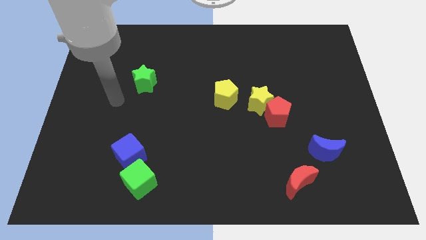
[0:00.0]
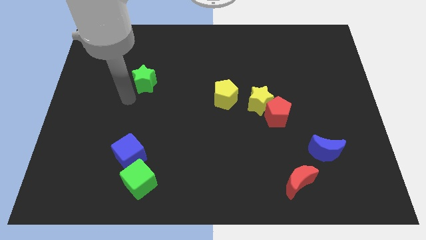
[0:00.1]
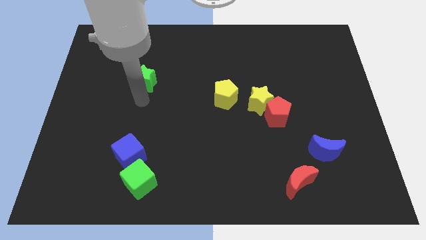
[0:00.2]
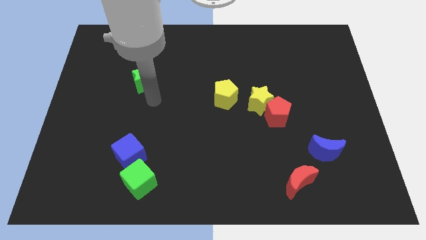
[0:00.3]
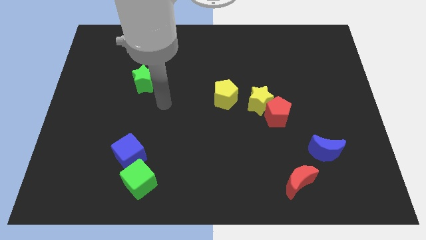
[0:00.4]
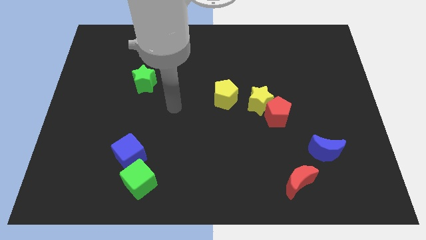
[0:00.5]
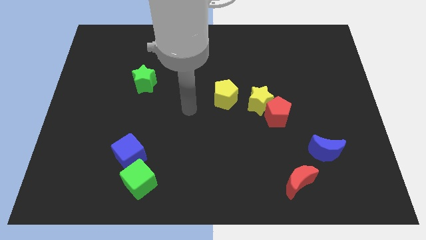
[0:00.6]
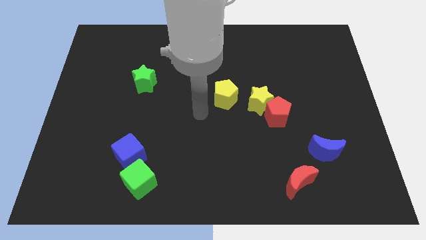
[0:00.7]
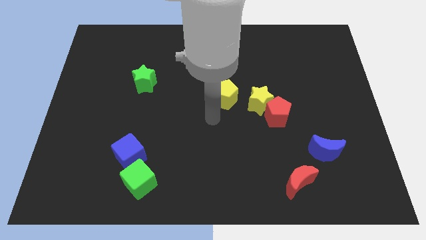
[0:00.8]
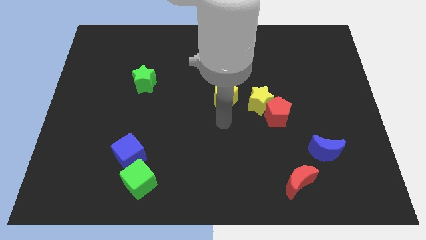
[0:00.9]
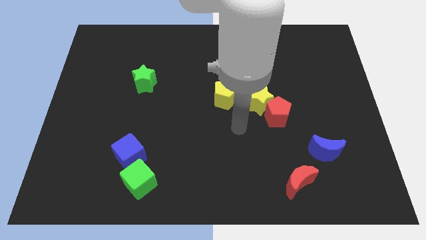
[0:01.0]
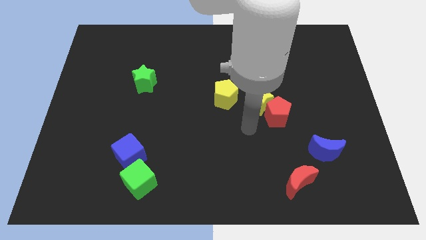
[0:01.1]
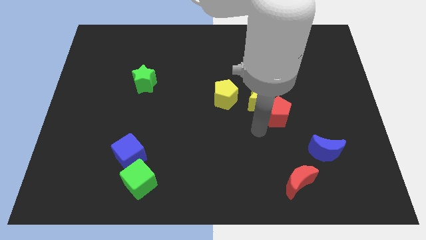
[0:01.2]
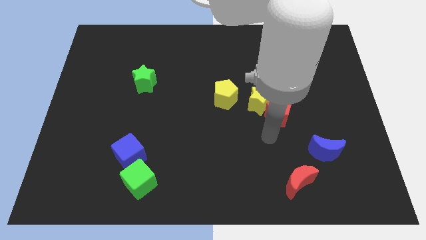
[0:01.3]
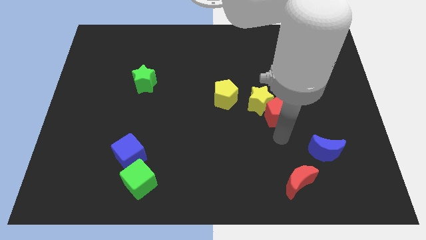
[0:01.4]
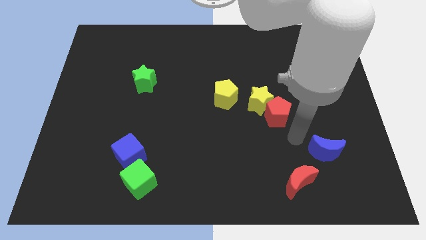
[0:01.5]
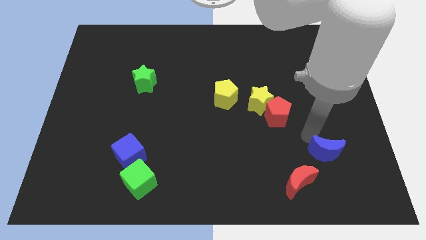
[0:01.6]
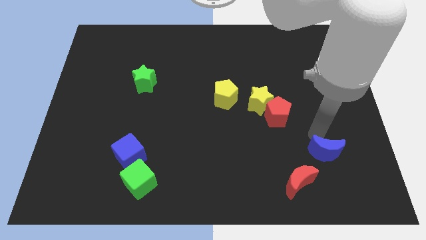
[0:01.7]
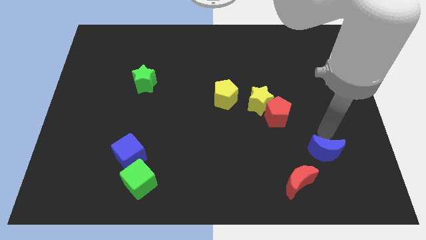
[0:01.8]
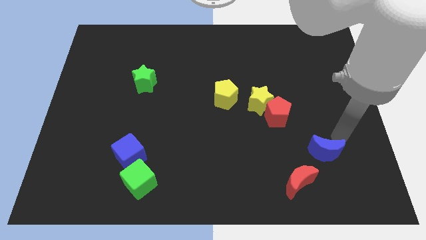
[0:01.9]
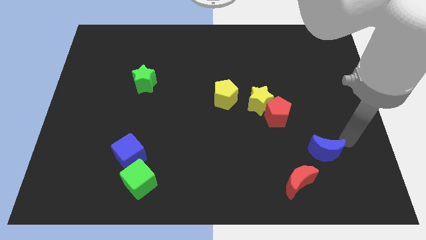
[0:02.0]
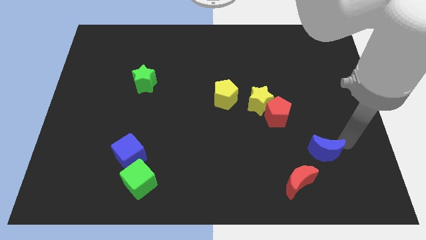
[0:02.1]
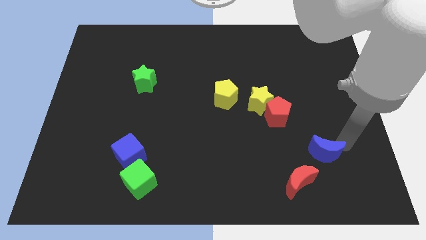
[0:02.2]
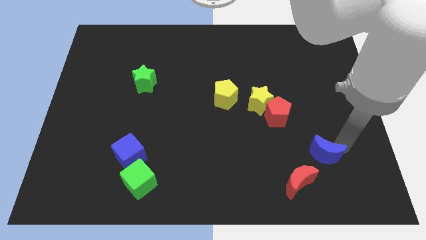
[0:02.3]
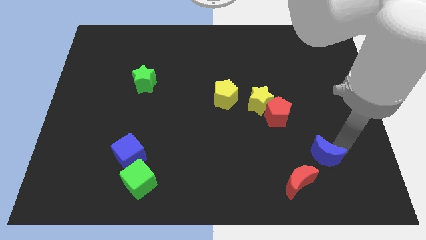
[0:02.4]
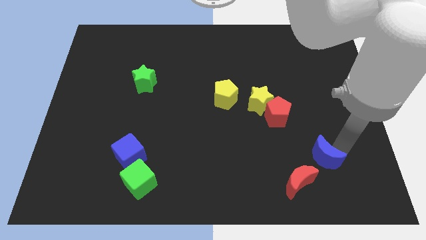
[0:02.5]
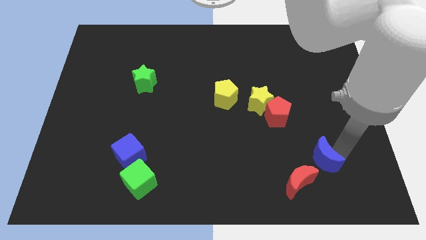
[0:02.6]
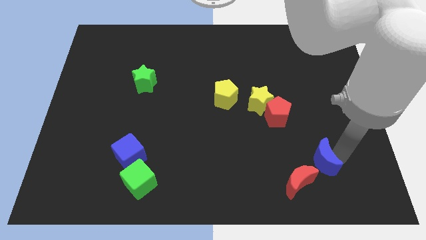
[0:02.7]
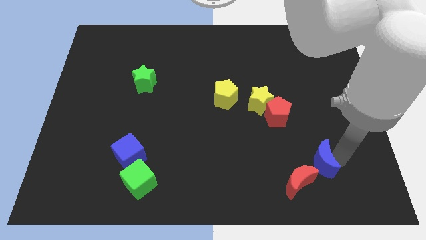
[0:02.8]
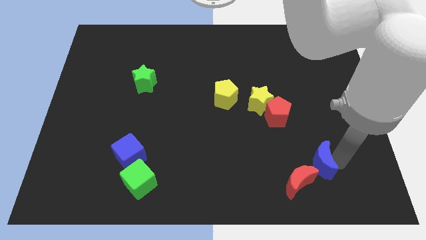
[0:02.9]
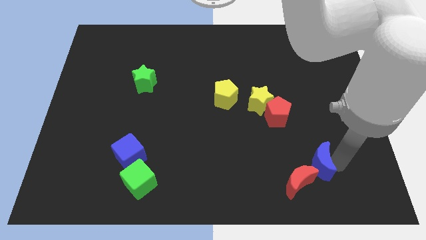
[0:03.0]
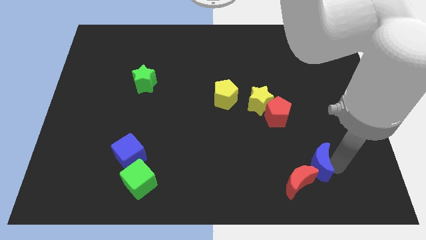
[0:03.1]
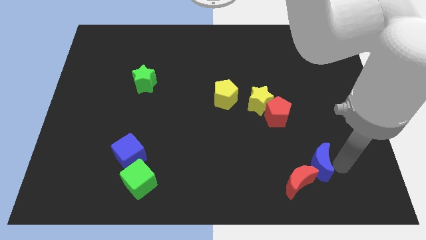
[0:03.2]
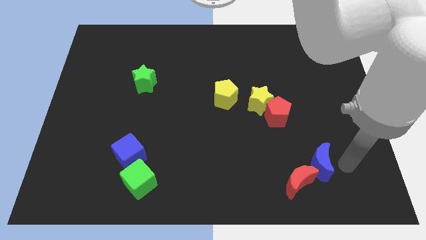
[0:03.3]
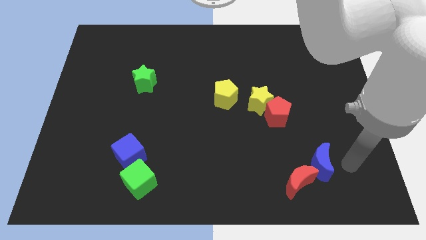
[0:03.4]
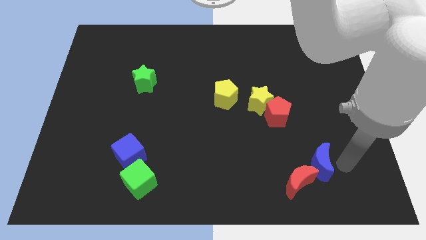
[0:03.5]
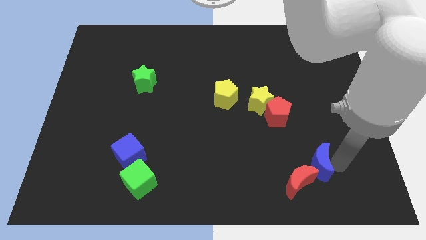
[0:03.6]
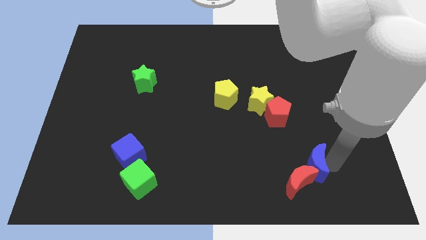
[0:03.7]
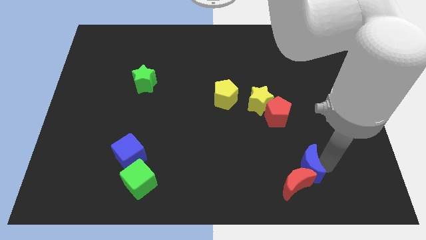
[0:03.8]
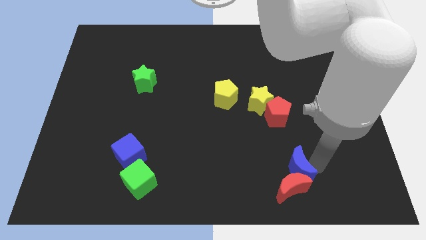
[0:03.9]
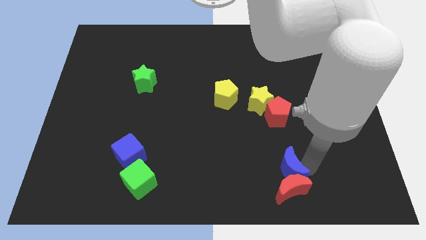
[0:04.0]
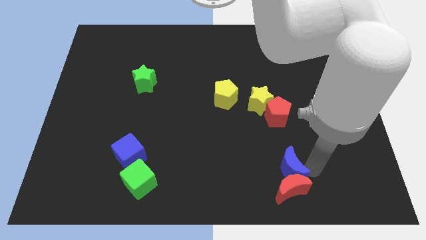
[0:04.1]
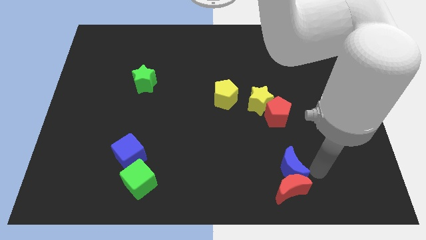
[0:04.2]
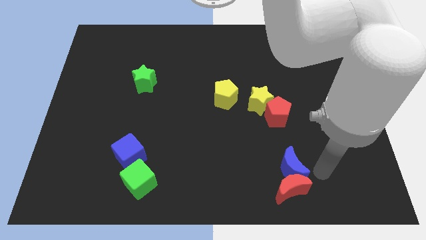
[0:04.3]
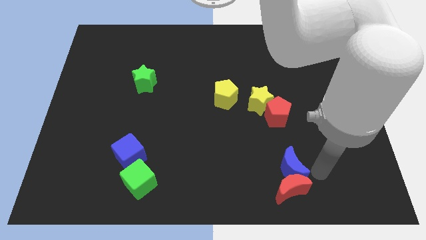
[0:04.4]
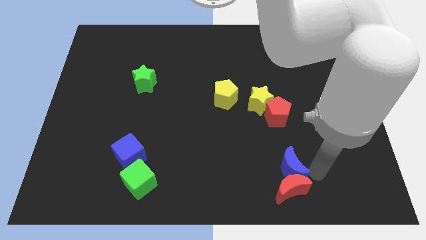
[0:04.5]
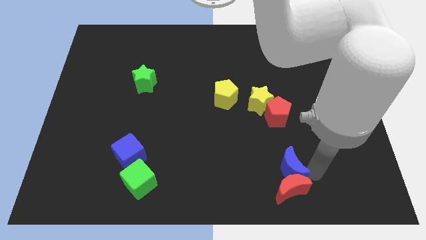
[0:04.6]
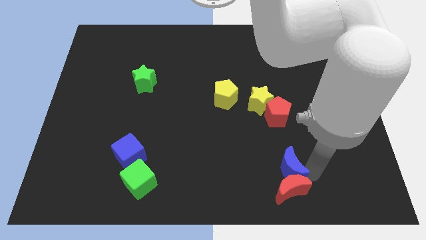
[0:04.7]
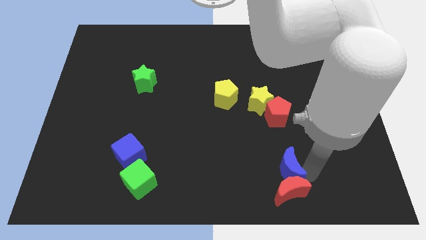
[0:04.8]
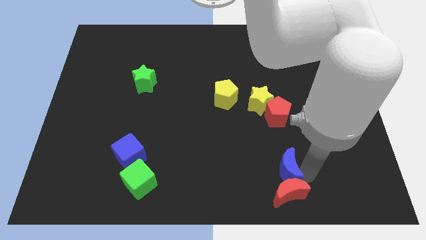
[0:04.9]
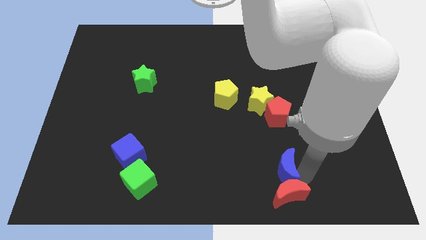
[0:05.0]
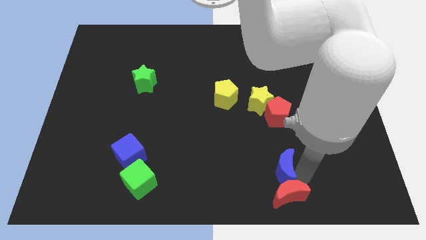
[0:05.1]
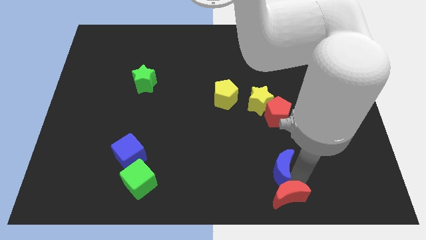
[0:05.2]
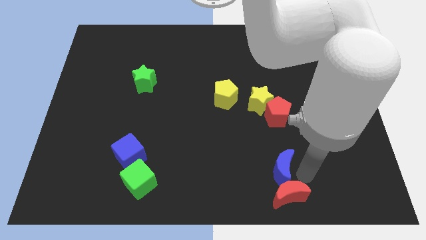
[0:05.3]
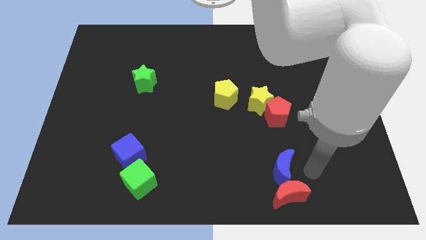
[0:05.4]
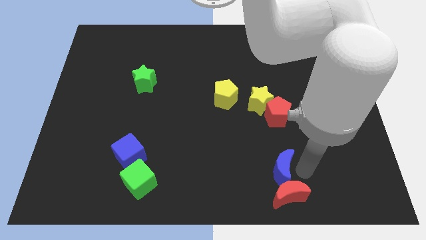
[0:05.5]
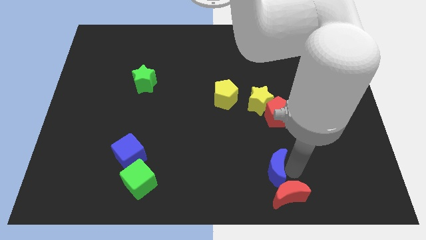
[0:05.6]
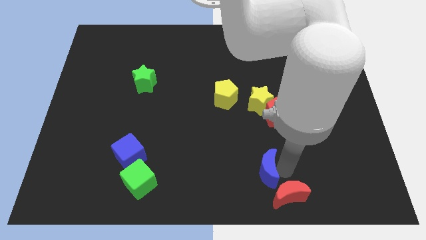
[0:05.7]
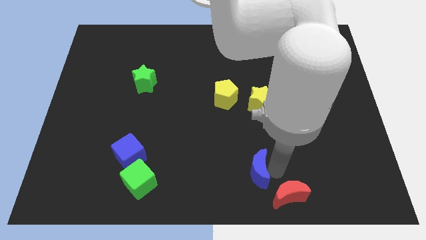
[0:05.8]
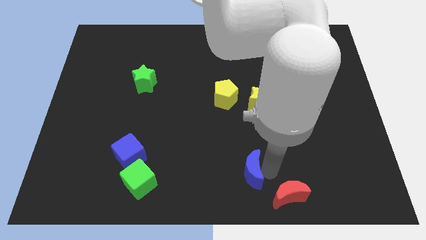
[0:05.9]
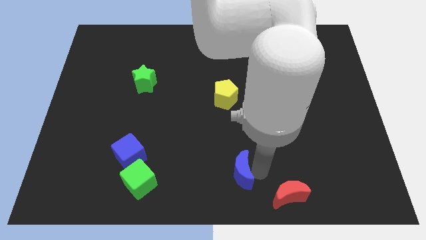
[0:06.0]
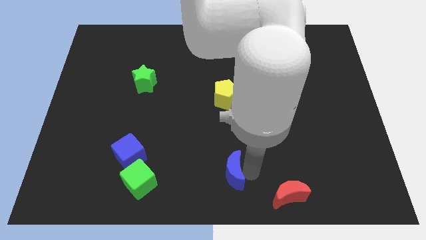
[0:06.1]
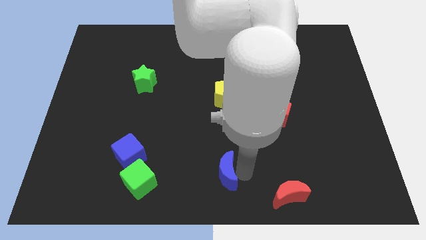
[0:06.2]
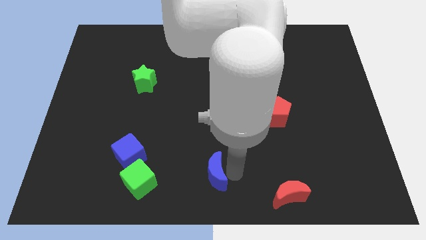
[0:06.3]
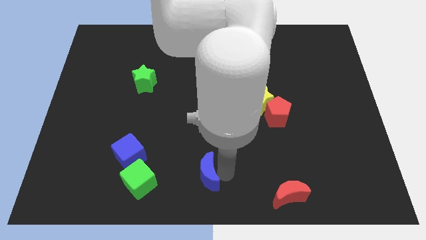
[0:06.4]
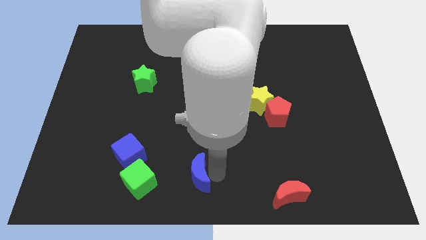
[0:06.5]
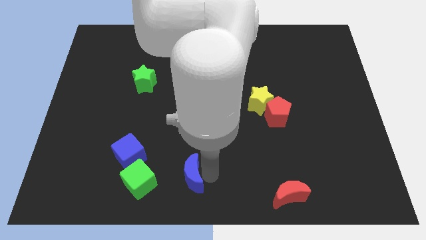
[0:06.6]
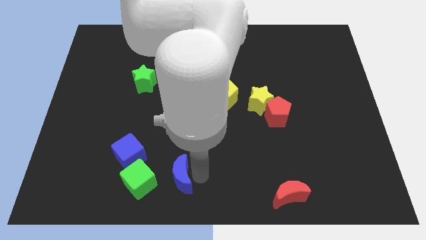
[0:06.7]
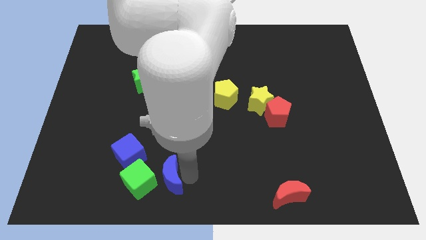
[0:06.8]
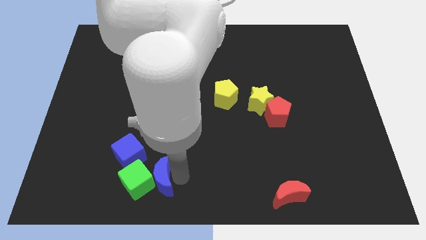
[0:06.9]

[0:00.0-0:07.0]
put the blue moon towards the green cube

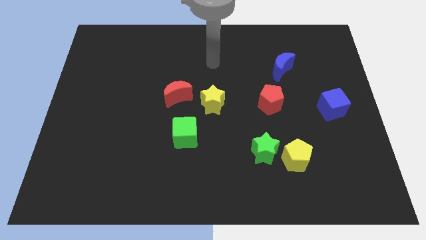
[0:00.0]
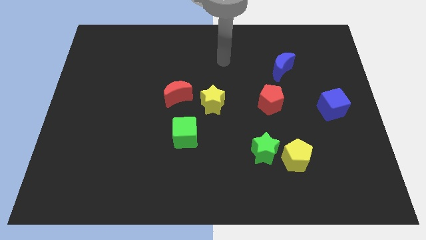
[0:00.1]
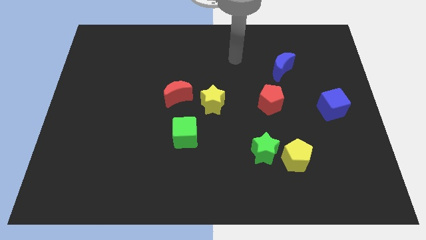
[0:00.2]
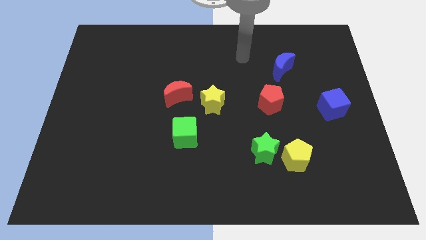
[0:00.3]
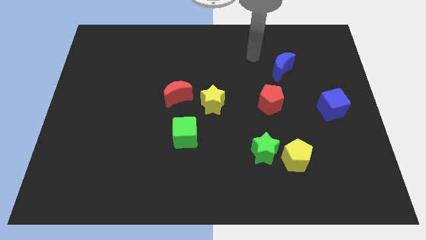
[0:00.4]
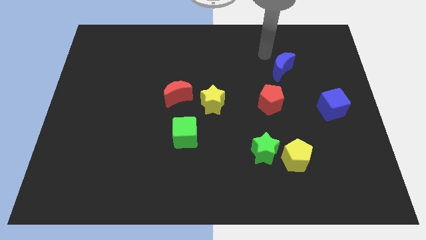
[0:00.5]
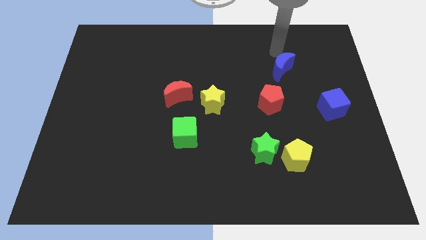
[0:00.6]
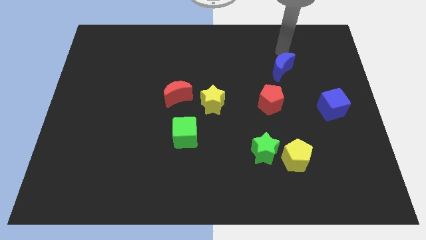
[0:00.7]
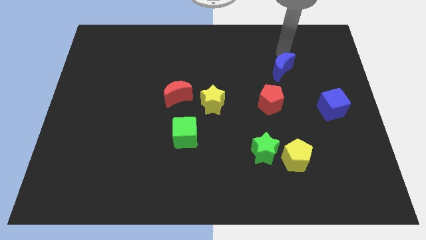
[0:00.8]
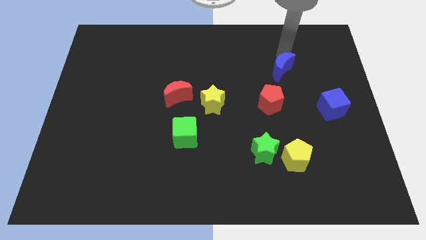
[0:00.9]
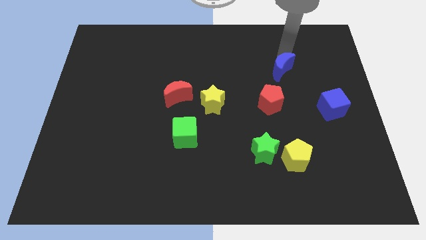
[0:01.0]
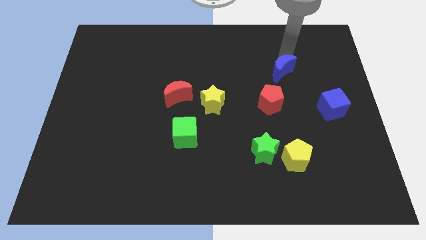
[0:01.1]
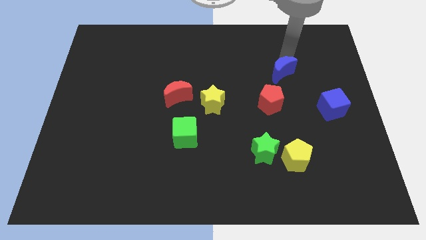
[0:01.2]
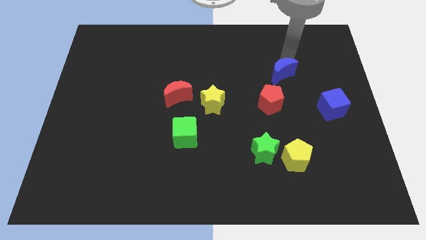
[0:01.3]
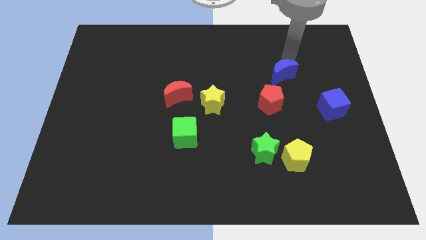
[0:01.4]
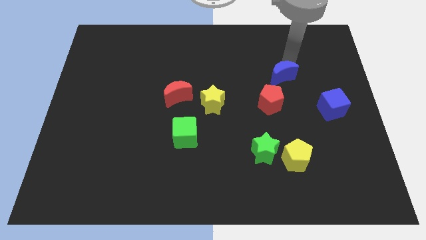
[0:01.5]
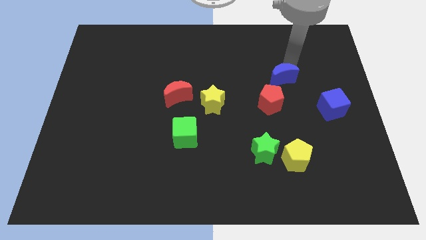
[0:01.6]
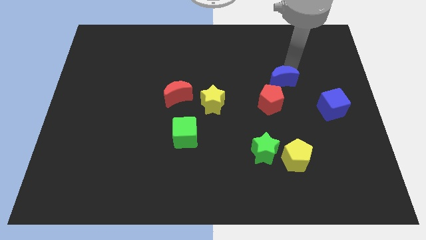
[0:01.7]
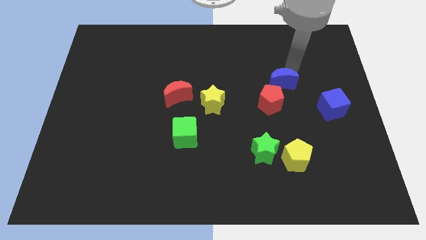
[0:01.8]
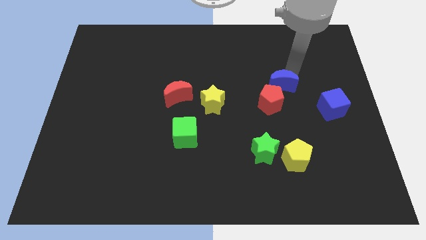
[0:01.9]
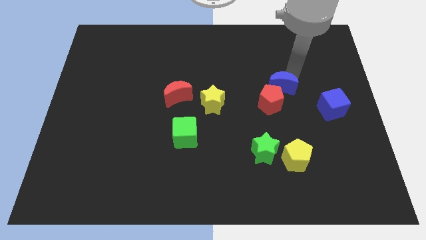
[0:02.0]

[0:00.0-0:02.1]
move the blue moon towards the red pentagon
